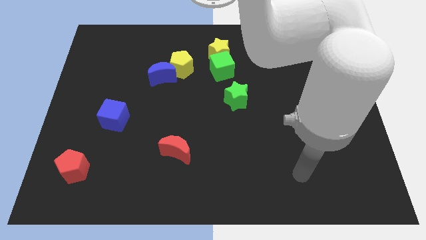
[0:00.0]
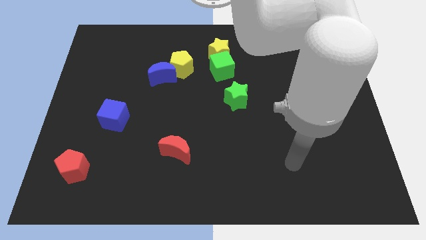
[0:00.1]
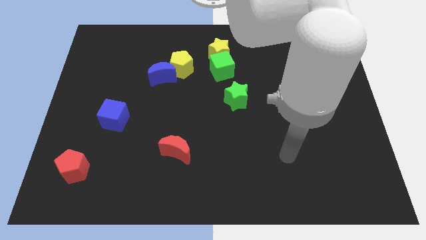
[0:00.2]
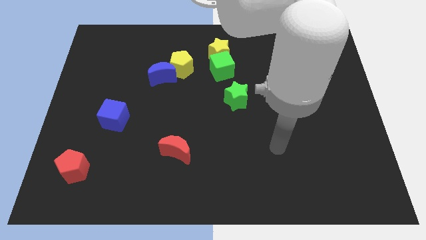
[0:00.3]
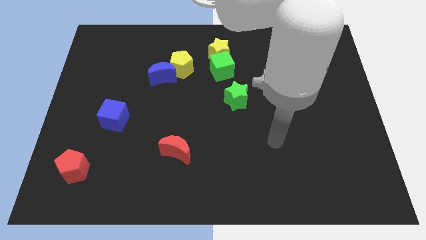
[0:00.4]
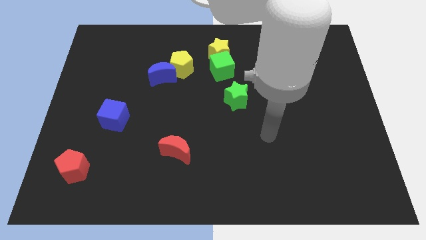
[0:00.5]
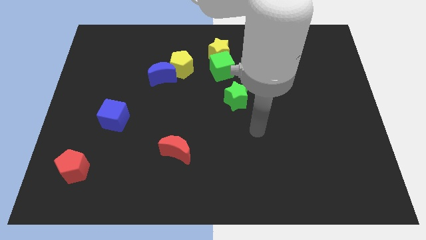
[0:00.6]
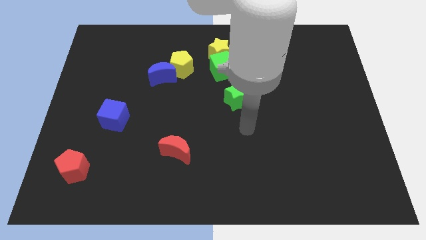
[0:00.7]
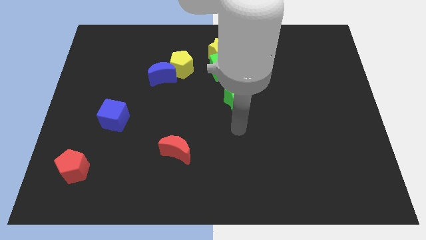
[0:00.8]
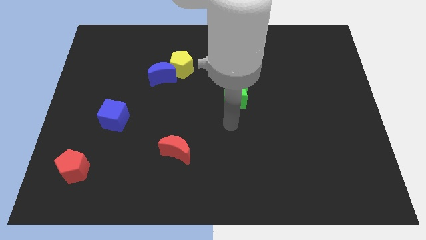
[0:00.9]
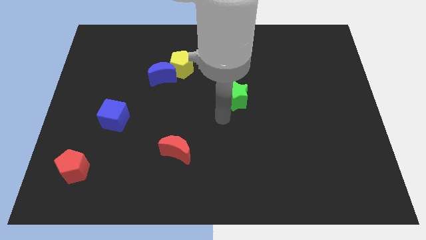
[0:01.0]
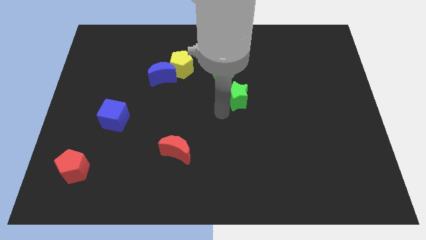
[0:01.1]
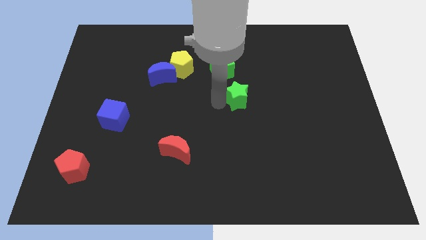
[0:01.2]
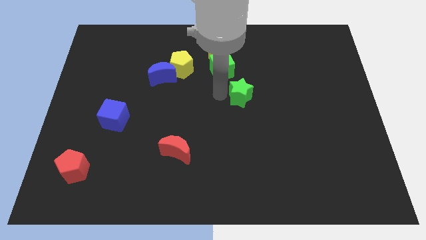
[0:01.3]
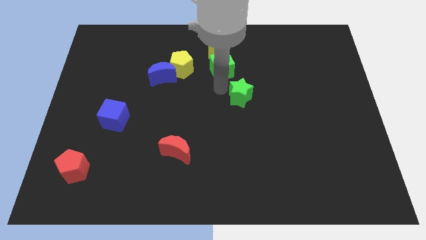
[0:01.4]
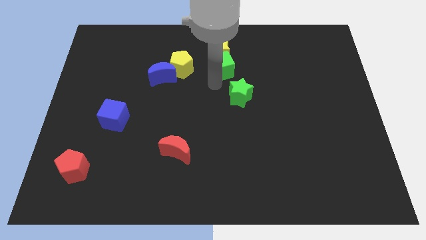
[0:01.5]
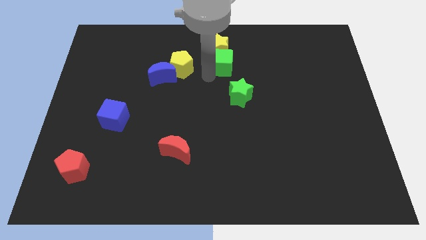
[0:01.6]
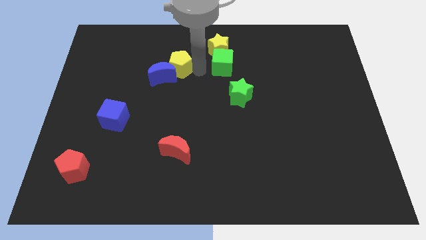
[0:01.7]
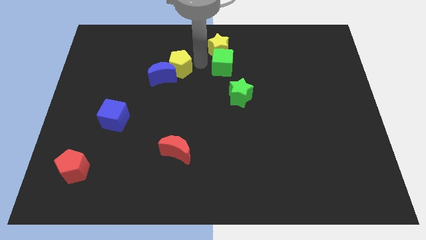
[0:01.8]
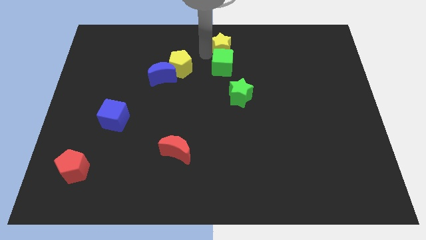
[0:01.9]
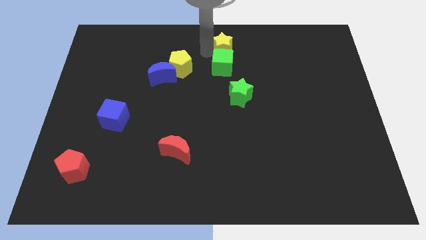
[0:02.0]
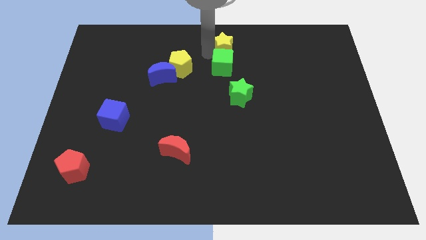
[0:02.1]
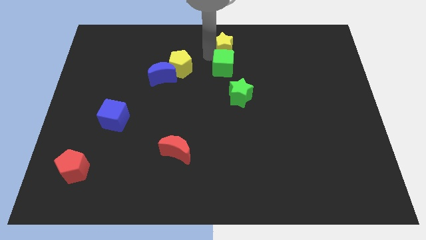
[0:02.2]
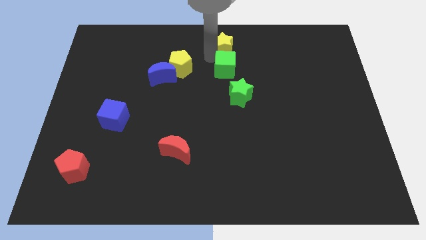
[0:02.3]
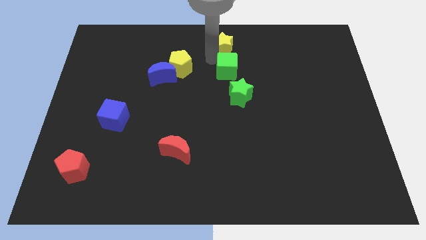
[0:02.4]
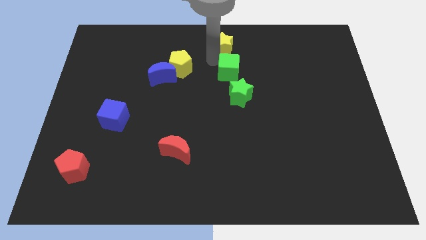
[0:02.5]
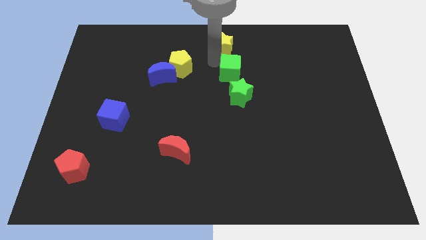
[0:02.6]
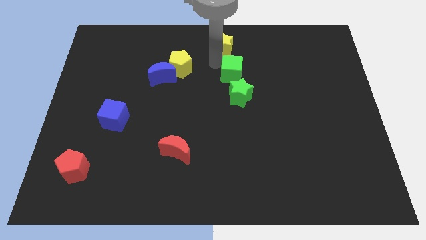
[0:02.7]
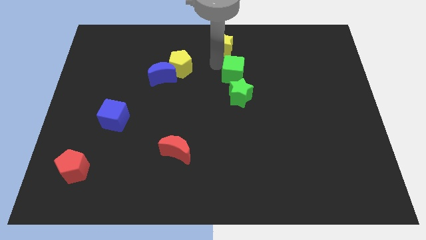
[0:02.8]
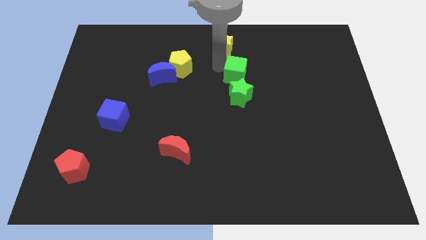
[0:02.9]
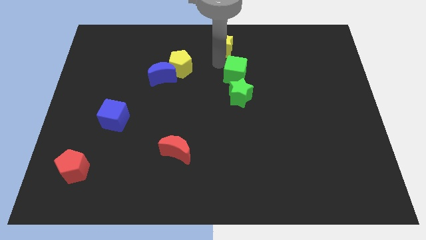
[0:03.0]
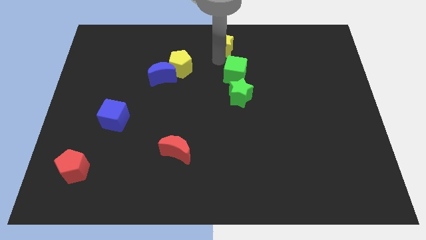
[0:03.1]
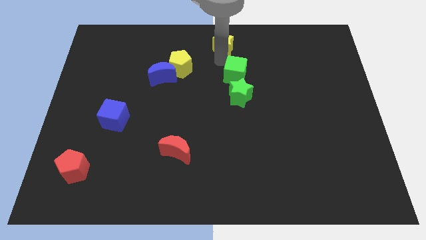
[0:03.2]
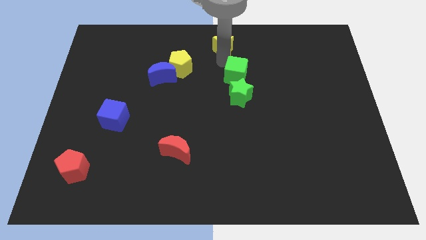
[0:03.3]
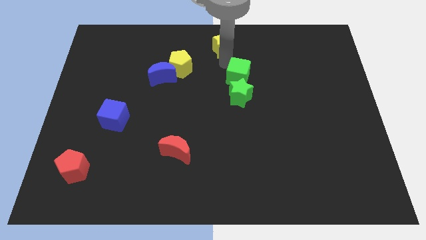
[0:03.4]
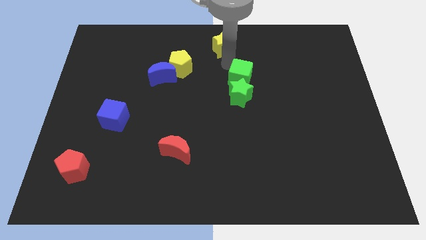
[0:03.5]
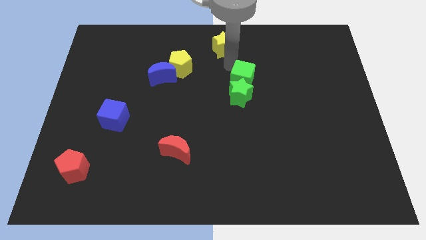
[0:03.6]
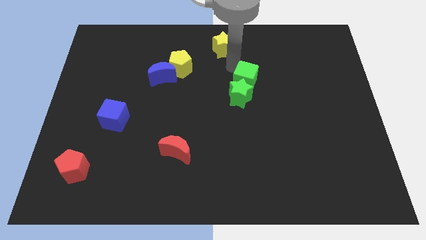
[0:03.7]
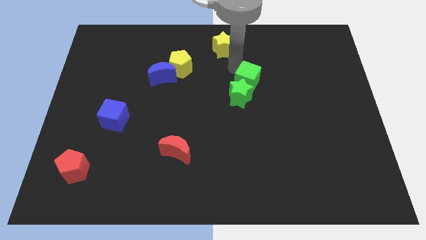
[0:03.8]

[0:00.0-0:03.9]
slide the green cube a bit diagonally down and right

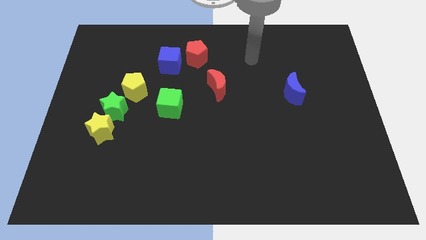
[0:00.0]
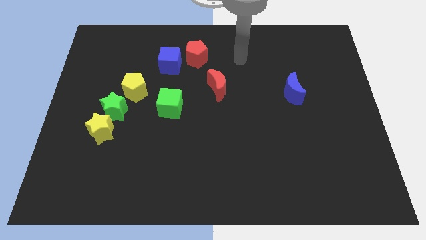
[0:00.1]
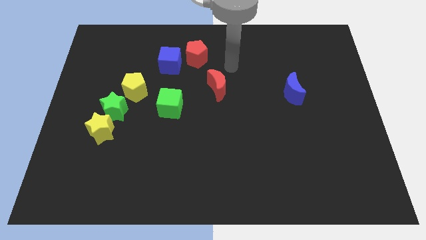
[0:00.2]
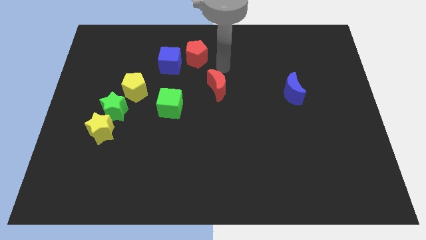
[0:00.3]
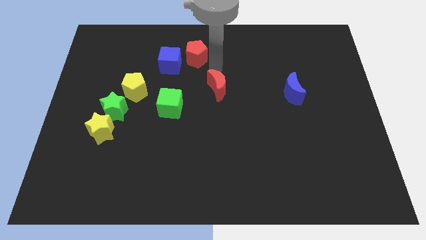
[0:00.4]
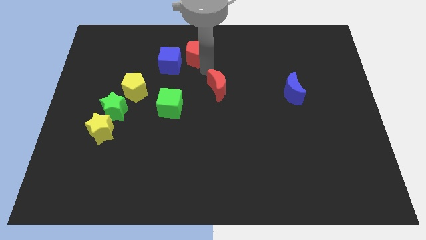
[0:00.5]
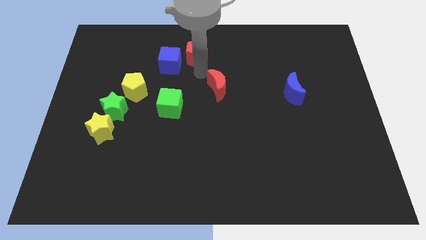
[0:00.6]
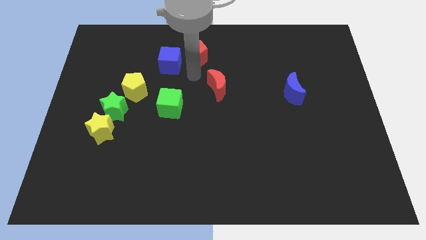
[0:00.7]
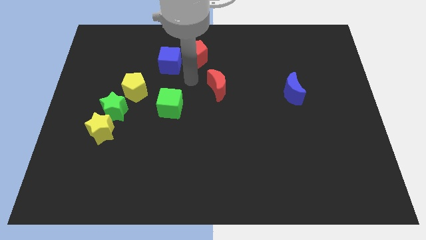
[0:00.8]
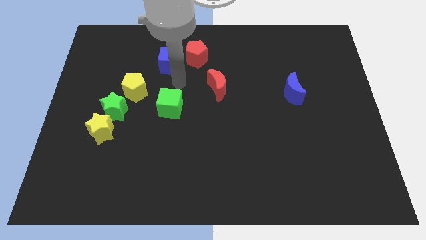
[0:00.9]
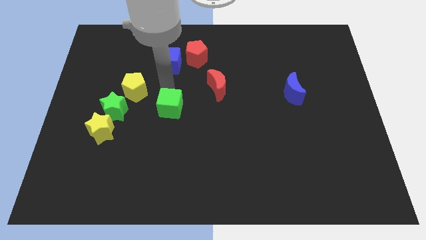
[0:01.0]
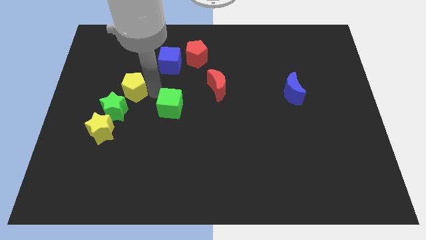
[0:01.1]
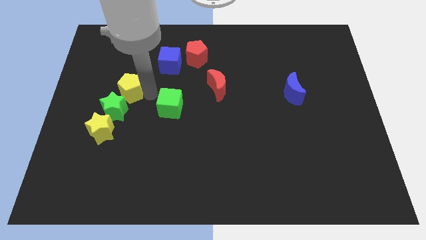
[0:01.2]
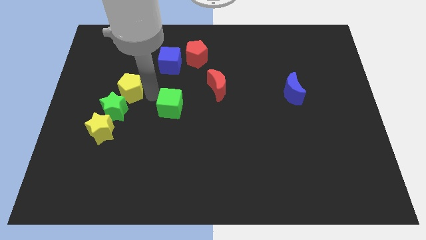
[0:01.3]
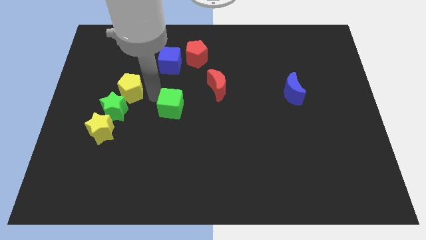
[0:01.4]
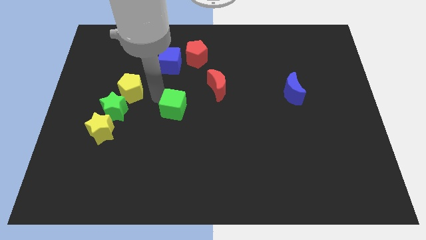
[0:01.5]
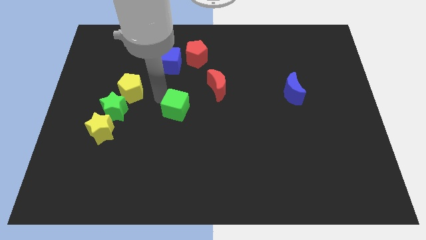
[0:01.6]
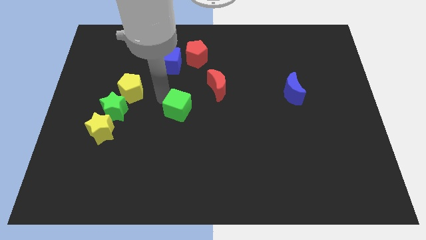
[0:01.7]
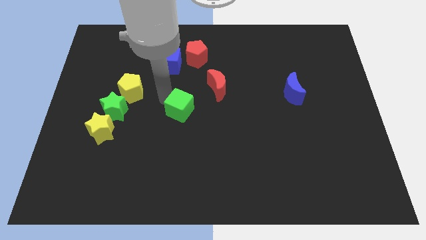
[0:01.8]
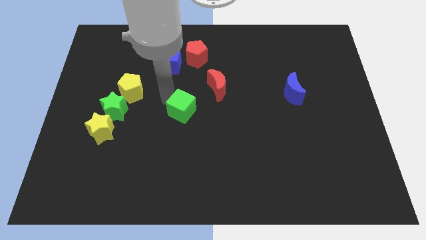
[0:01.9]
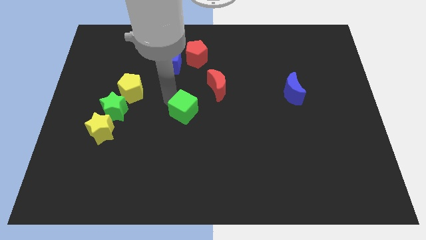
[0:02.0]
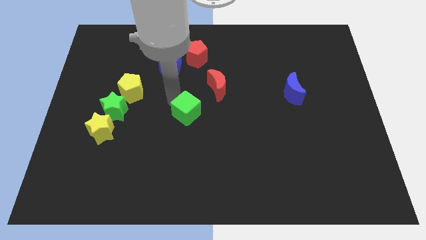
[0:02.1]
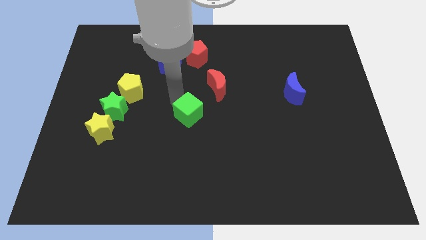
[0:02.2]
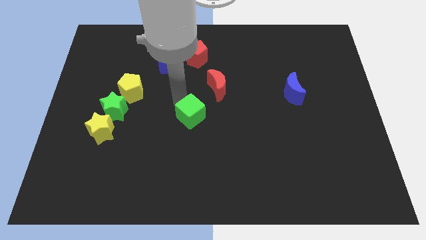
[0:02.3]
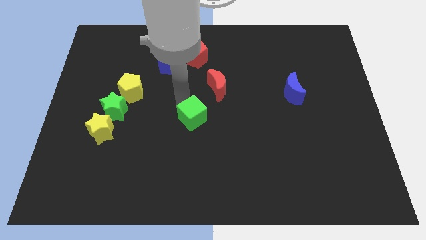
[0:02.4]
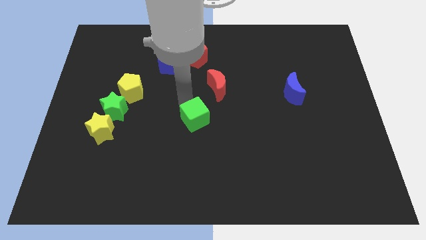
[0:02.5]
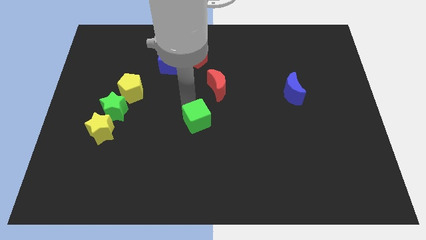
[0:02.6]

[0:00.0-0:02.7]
slightly move the green cube diagonally downwards and right

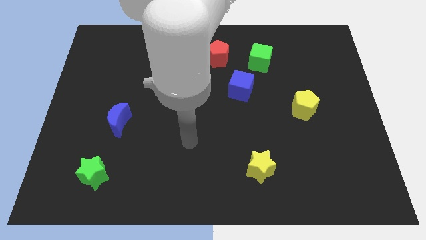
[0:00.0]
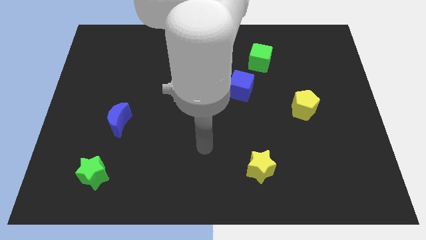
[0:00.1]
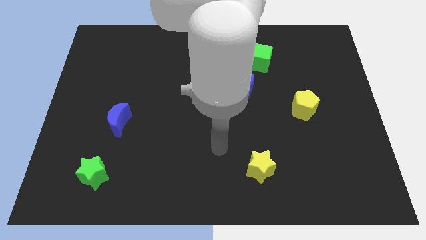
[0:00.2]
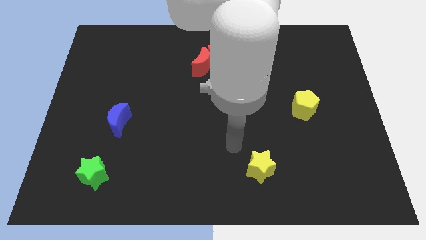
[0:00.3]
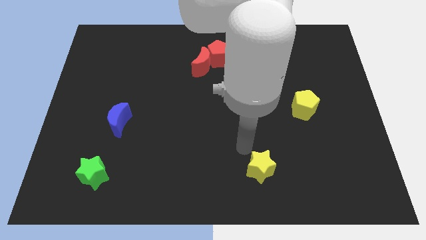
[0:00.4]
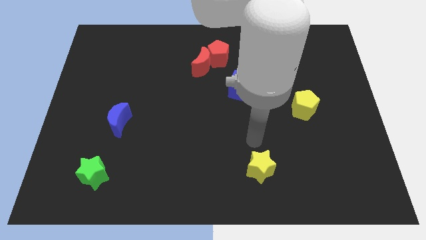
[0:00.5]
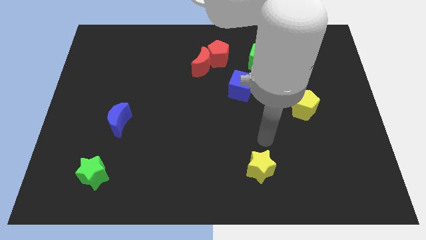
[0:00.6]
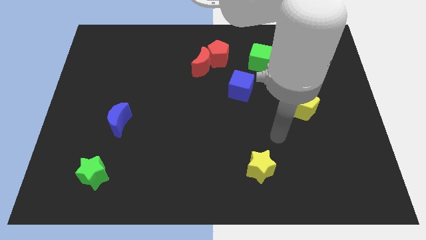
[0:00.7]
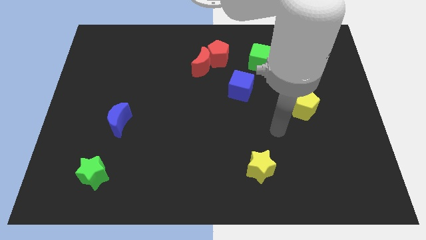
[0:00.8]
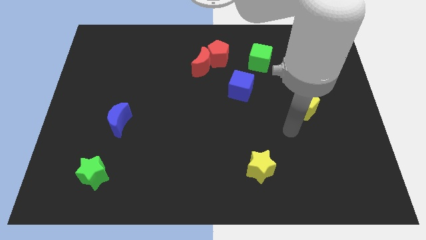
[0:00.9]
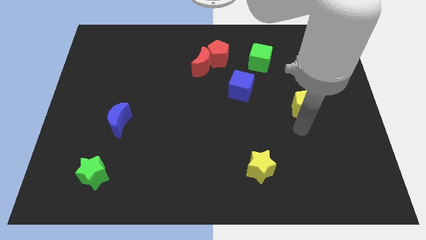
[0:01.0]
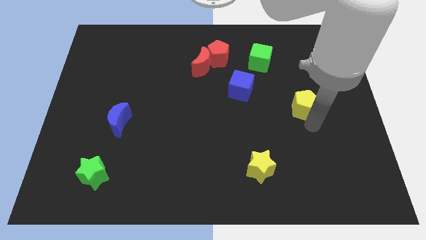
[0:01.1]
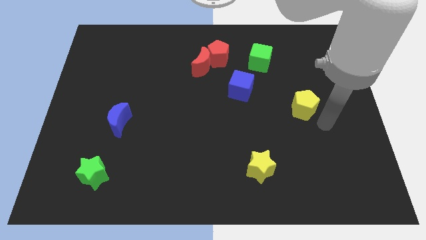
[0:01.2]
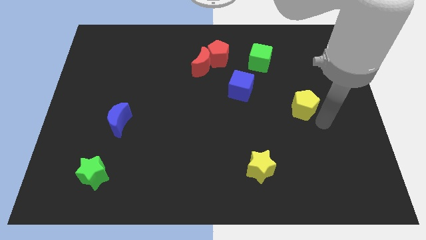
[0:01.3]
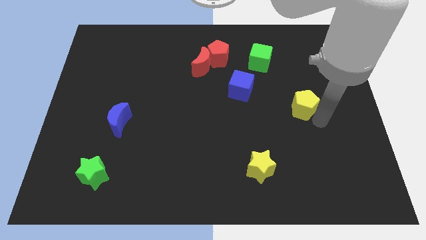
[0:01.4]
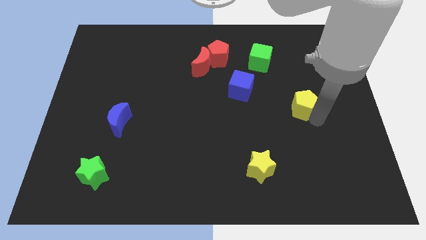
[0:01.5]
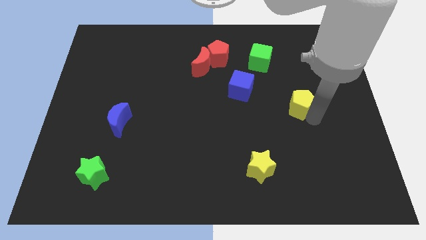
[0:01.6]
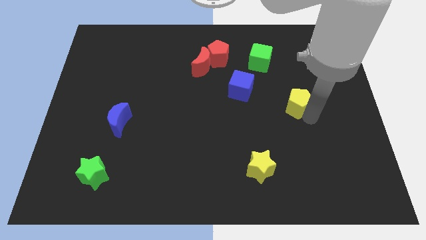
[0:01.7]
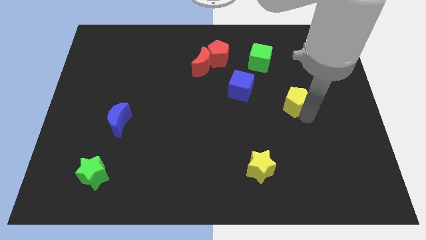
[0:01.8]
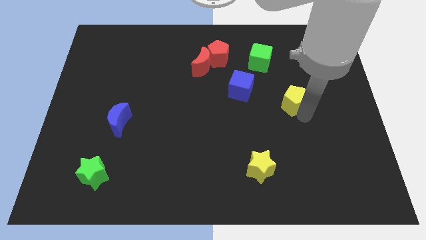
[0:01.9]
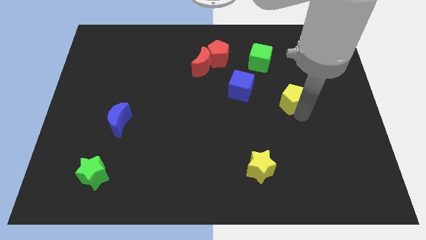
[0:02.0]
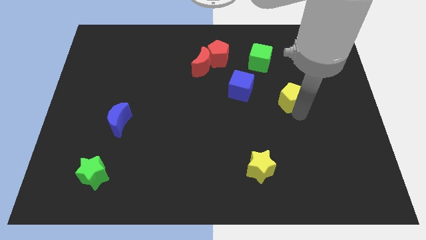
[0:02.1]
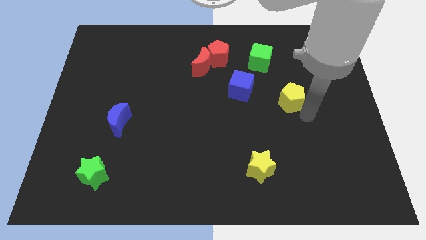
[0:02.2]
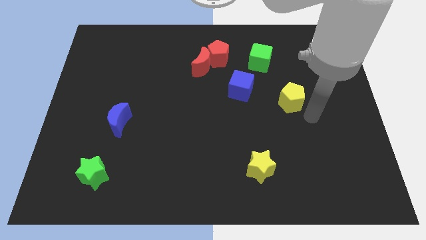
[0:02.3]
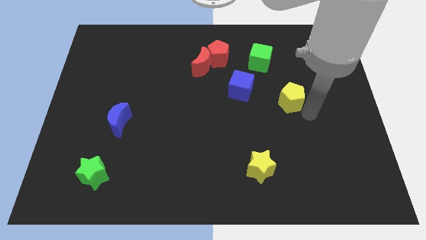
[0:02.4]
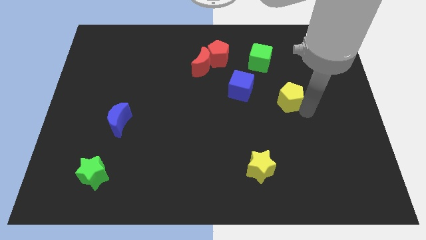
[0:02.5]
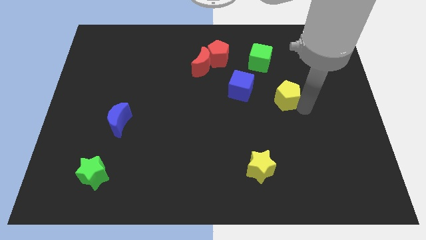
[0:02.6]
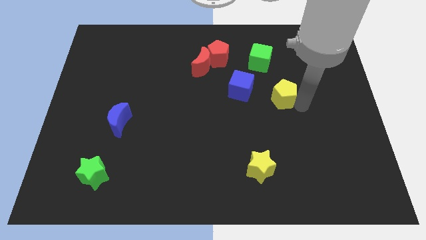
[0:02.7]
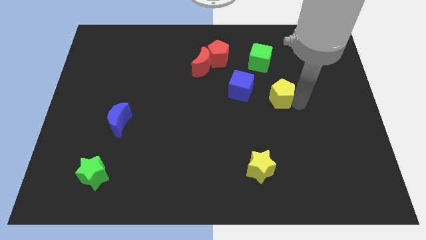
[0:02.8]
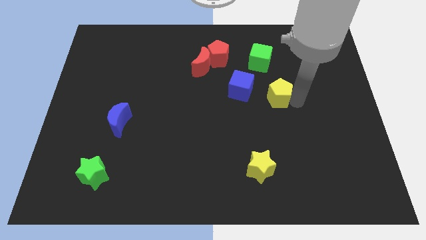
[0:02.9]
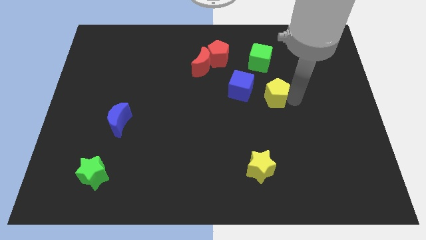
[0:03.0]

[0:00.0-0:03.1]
push the yellow pentagon upwards and left slightly
